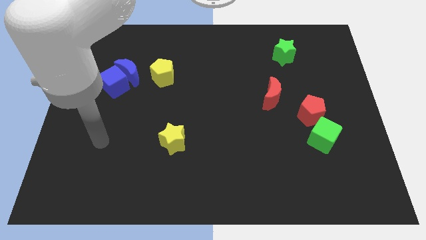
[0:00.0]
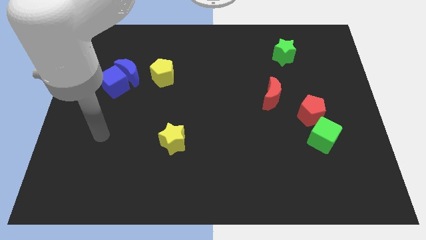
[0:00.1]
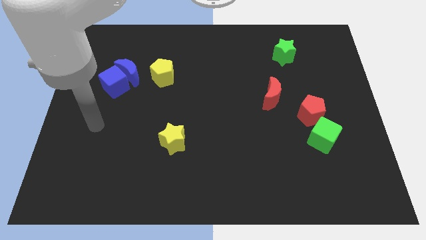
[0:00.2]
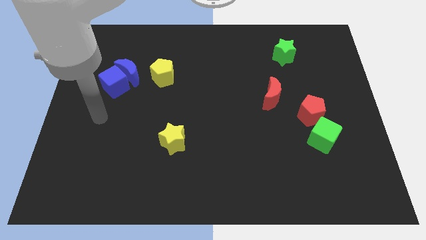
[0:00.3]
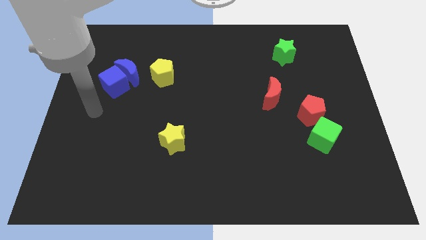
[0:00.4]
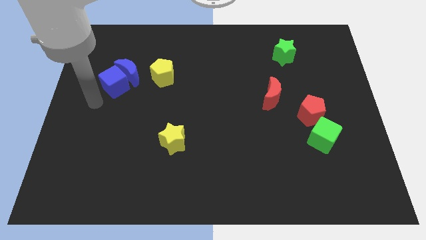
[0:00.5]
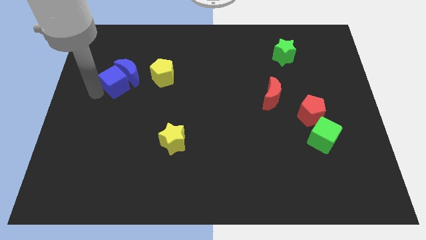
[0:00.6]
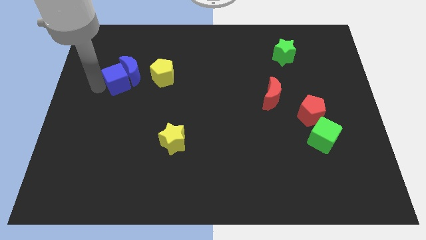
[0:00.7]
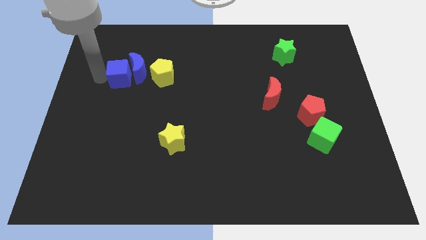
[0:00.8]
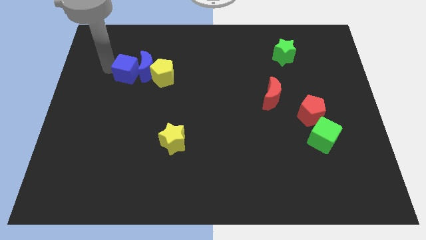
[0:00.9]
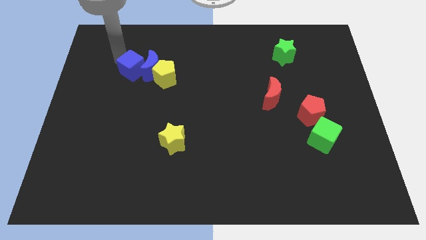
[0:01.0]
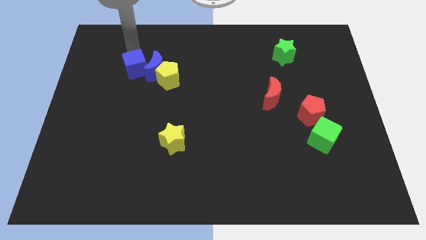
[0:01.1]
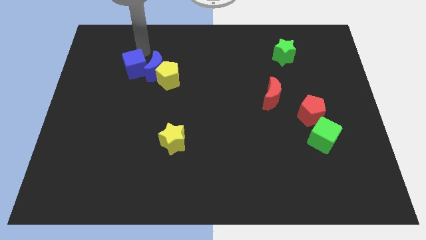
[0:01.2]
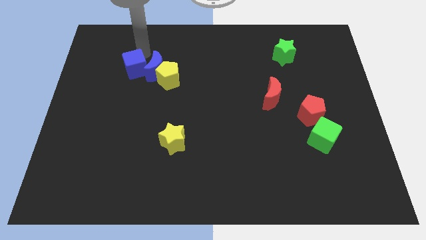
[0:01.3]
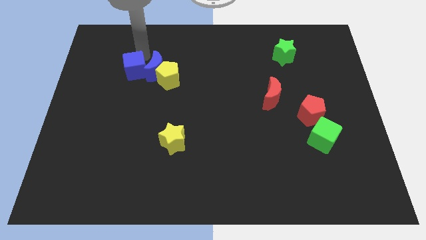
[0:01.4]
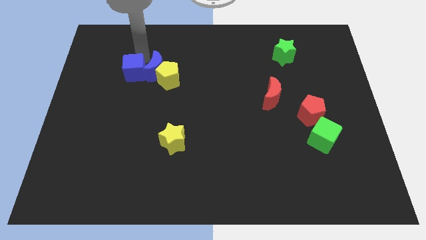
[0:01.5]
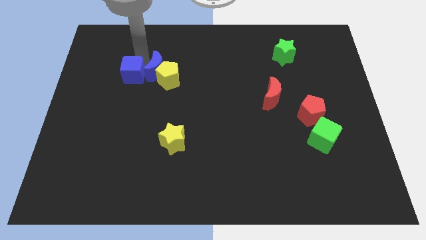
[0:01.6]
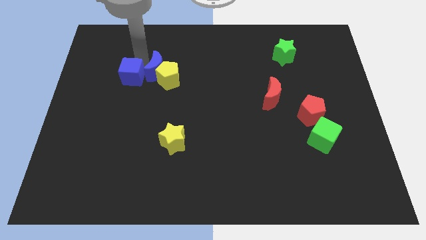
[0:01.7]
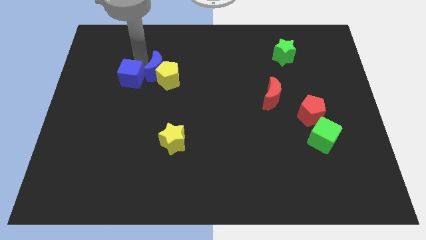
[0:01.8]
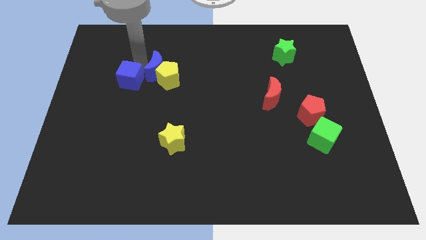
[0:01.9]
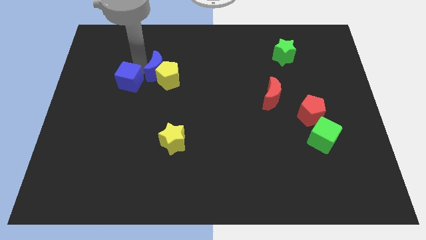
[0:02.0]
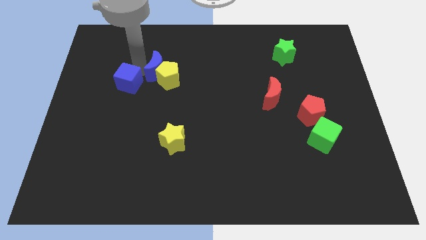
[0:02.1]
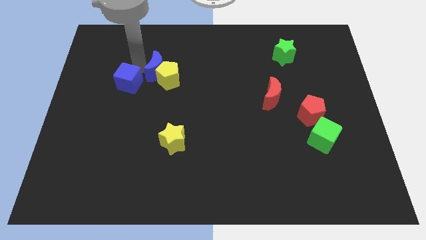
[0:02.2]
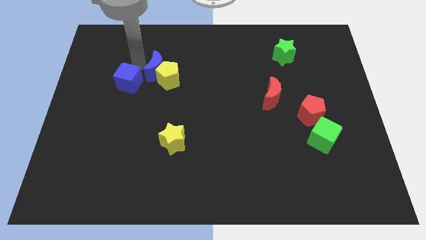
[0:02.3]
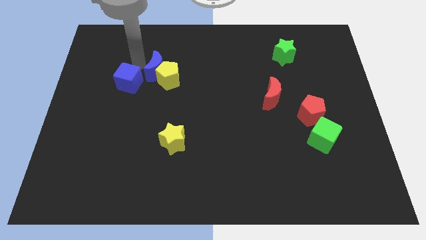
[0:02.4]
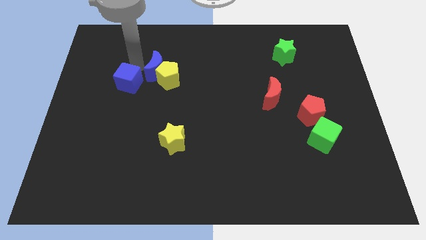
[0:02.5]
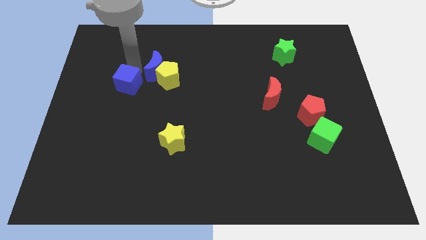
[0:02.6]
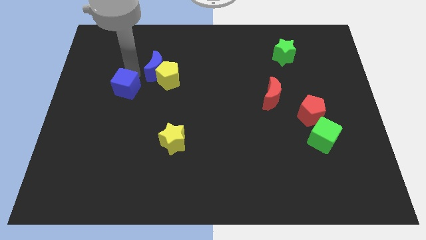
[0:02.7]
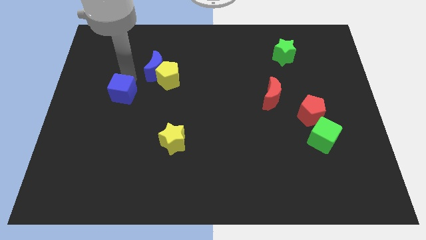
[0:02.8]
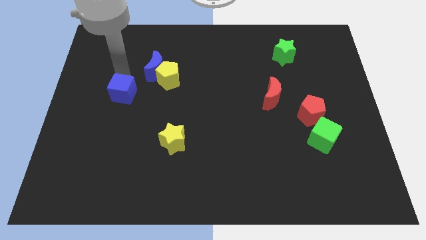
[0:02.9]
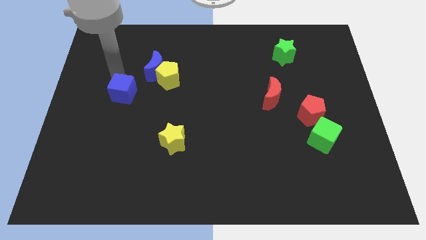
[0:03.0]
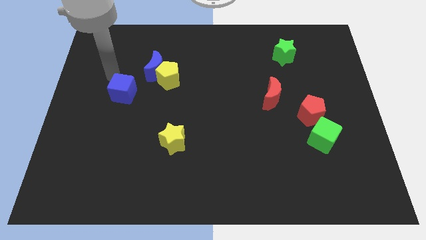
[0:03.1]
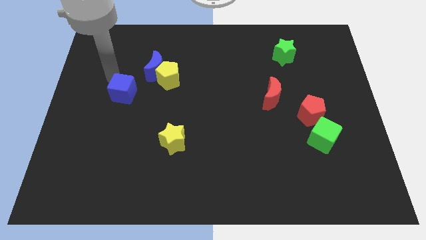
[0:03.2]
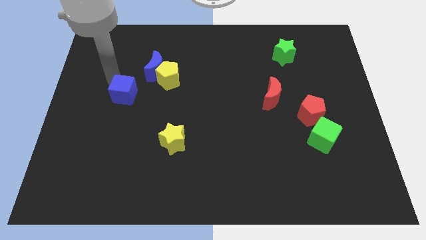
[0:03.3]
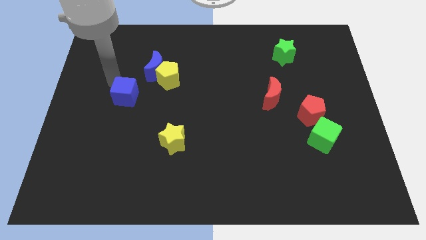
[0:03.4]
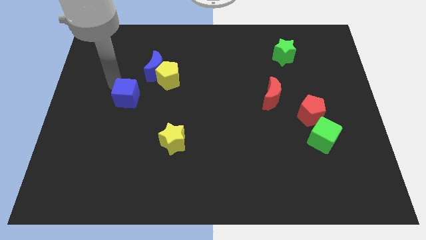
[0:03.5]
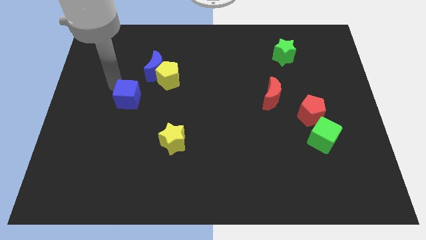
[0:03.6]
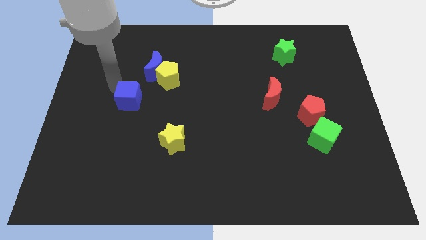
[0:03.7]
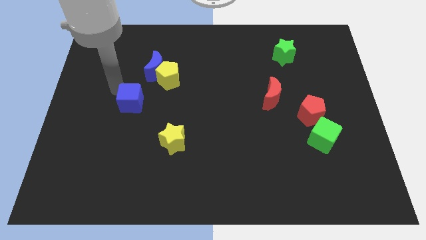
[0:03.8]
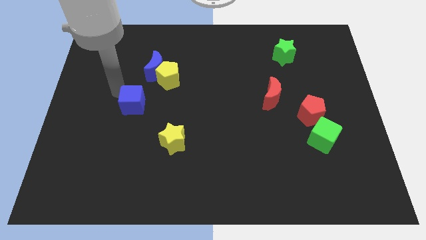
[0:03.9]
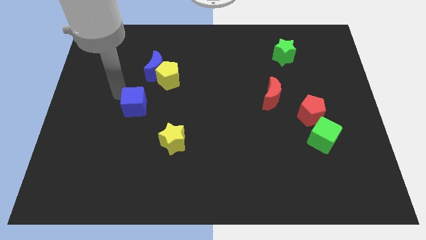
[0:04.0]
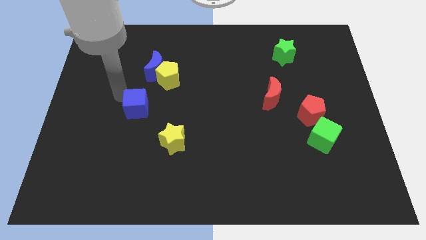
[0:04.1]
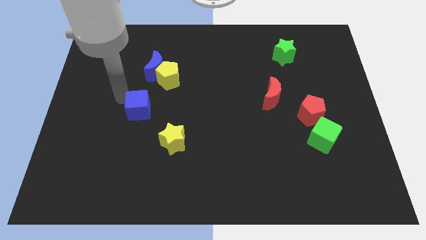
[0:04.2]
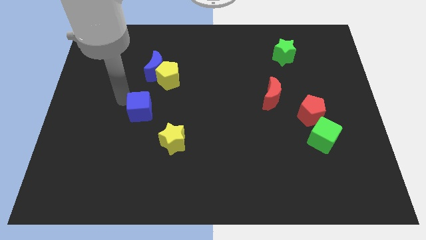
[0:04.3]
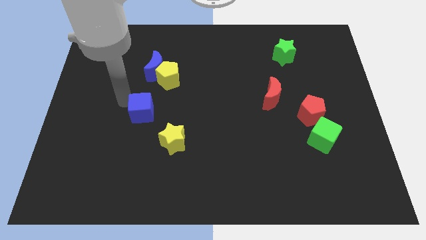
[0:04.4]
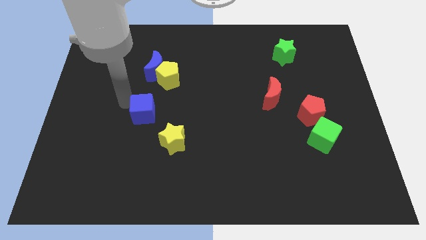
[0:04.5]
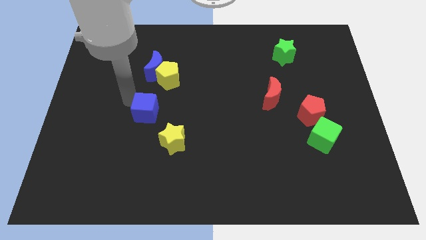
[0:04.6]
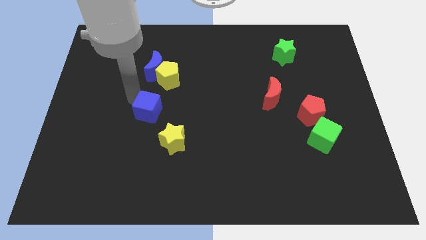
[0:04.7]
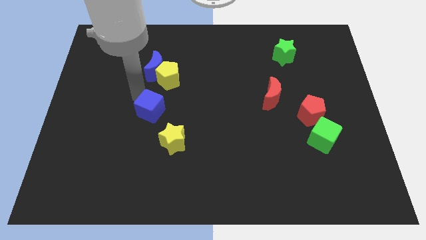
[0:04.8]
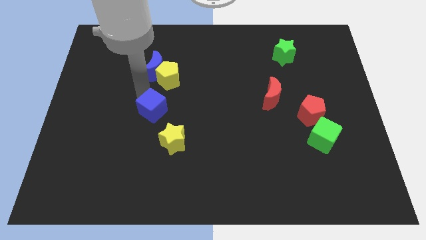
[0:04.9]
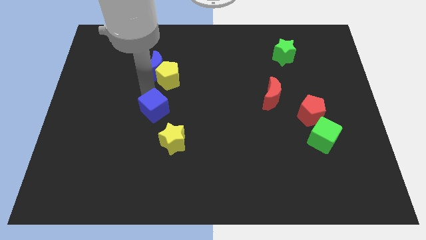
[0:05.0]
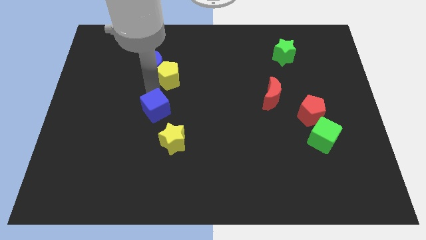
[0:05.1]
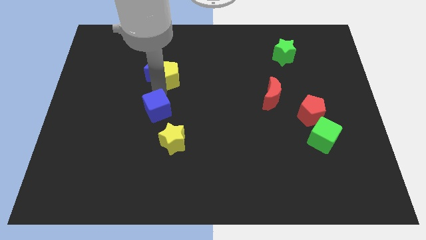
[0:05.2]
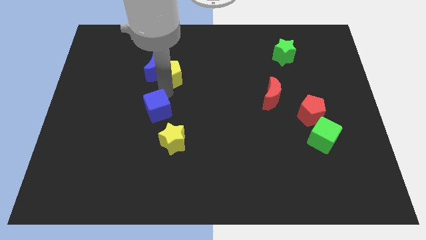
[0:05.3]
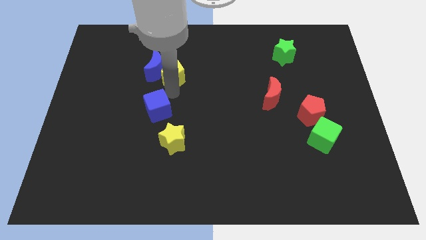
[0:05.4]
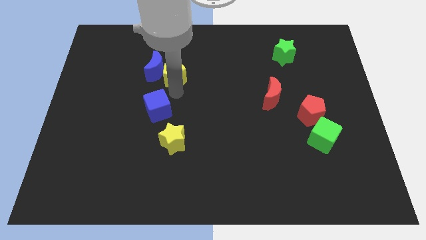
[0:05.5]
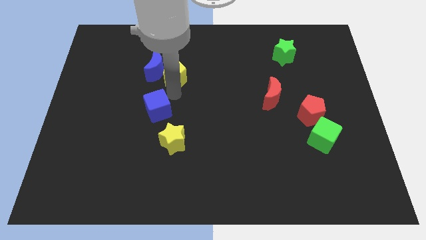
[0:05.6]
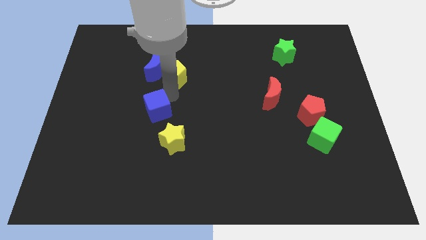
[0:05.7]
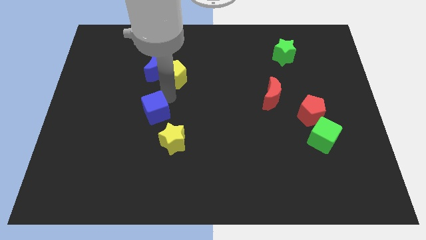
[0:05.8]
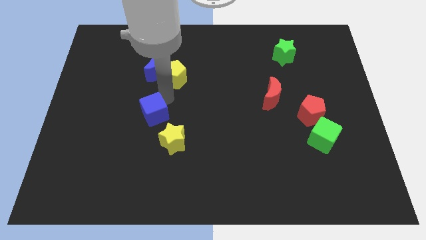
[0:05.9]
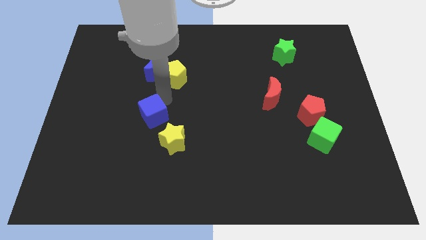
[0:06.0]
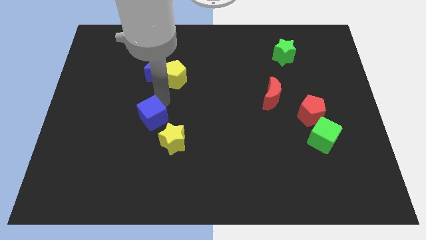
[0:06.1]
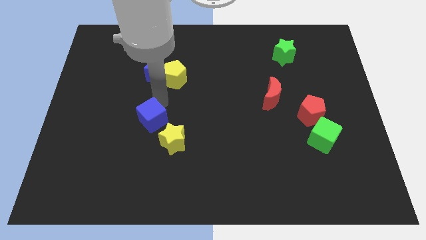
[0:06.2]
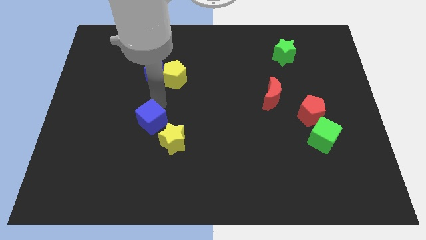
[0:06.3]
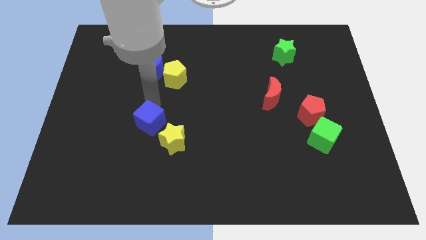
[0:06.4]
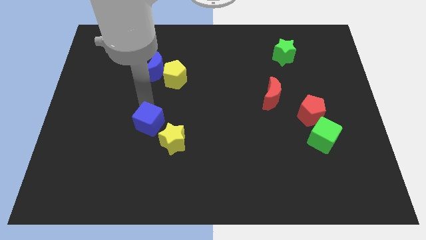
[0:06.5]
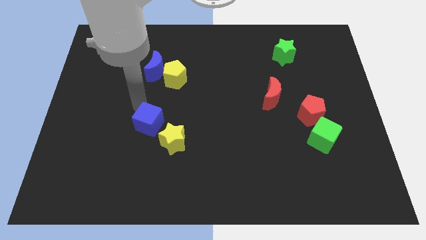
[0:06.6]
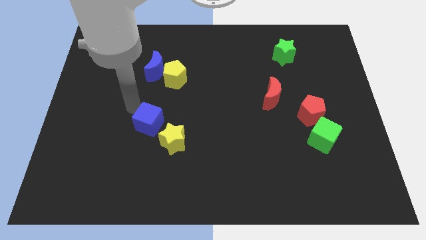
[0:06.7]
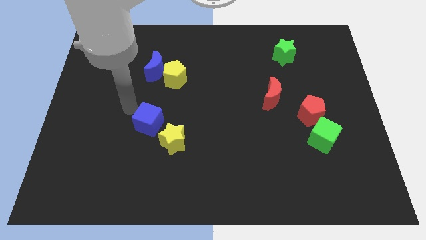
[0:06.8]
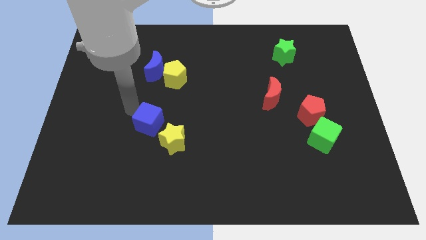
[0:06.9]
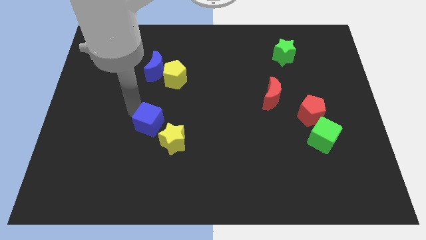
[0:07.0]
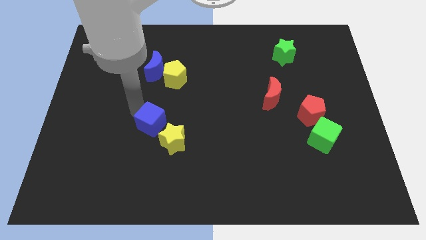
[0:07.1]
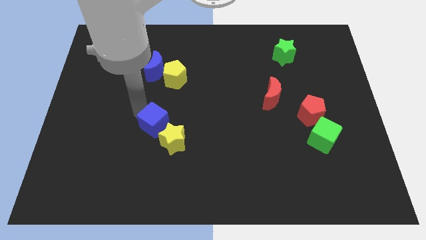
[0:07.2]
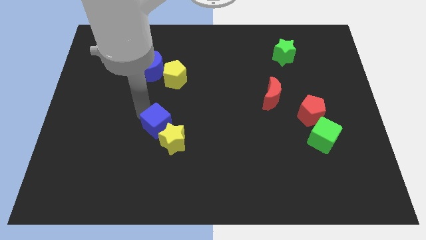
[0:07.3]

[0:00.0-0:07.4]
slide the blue cube next to the yellow star
